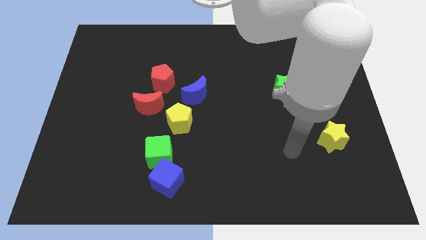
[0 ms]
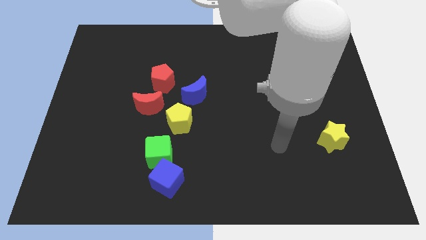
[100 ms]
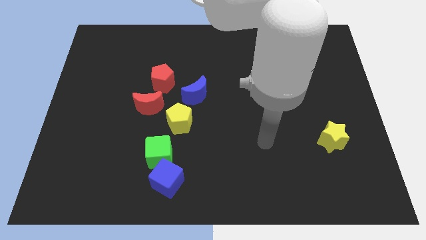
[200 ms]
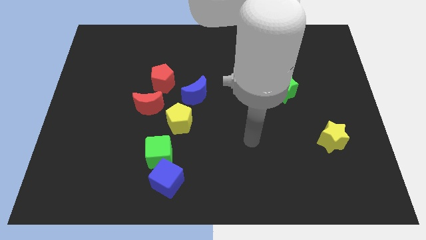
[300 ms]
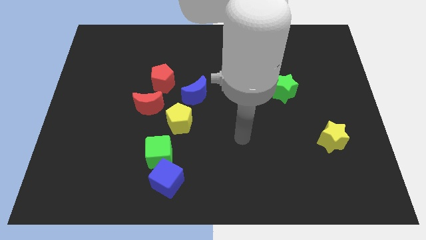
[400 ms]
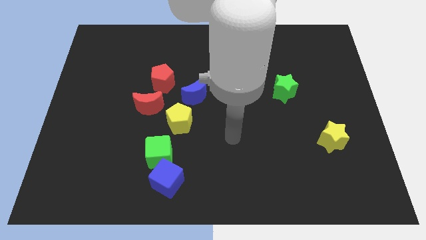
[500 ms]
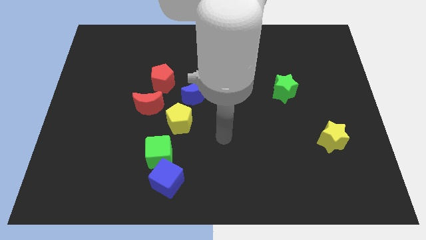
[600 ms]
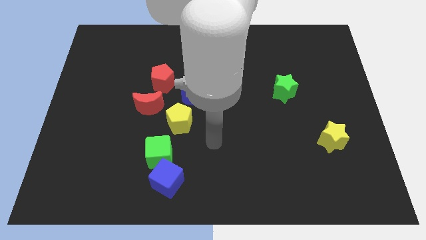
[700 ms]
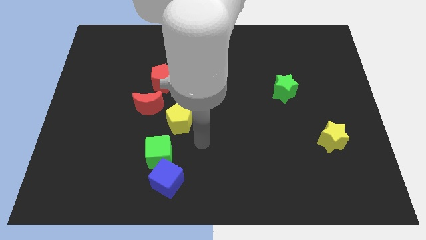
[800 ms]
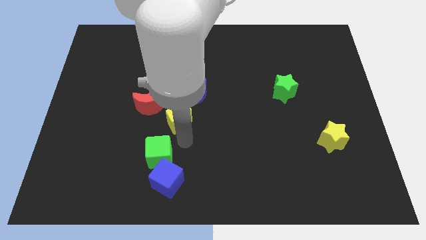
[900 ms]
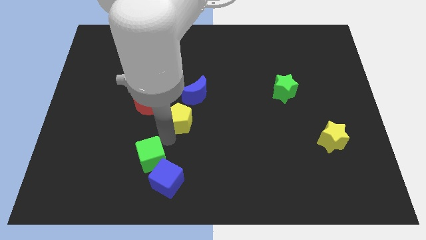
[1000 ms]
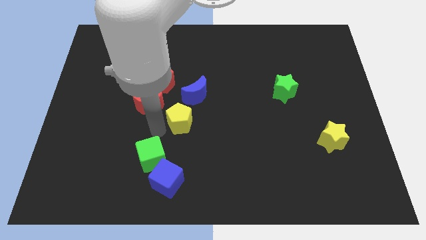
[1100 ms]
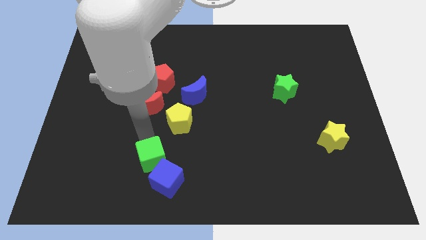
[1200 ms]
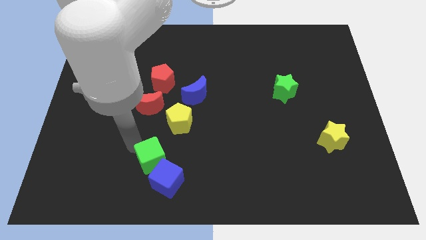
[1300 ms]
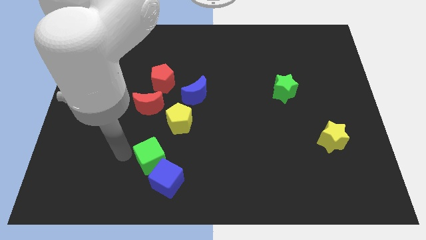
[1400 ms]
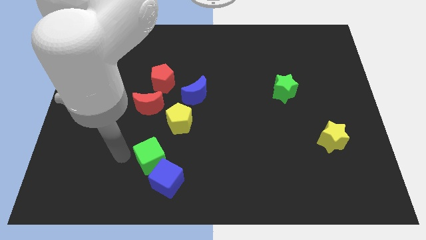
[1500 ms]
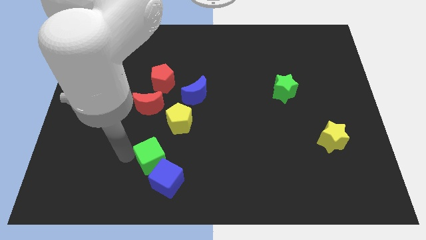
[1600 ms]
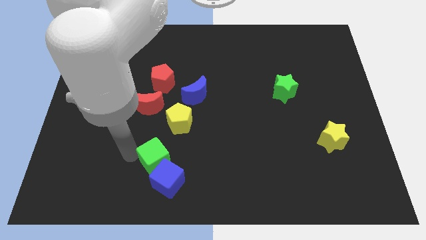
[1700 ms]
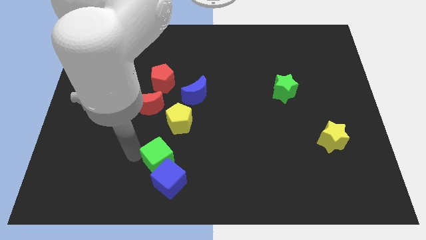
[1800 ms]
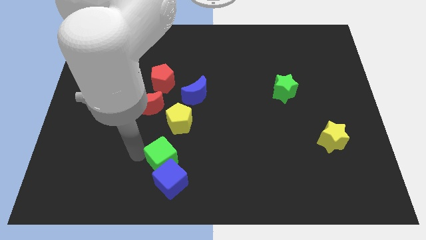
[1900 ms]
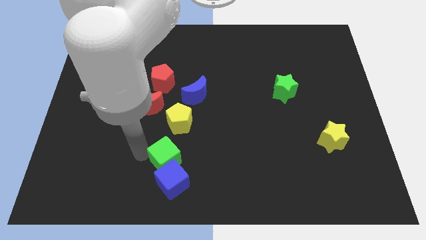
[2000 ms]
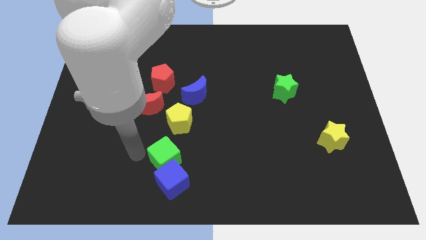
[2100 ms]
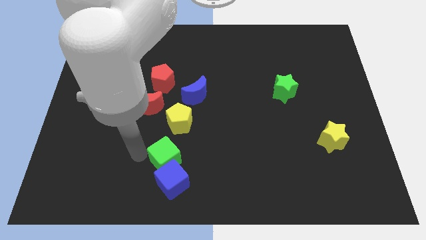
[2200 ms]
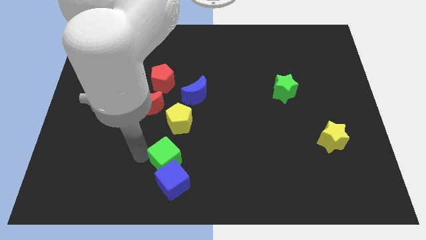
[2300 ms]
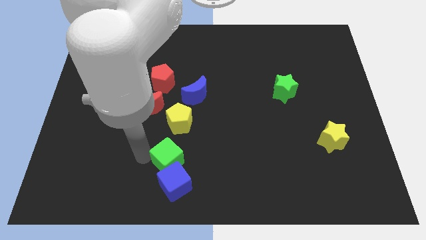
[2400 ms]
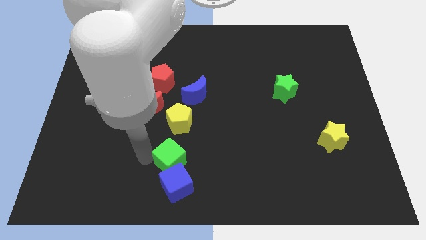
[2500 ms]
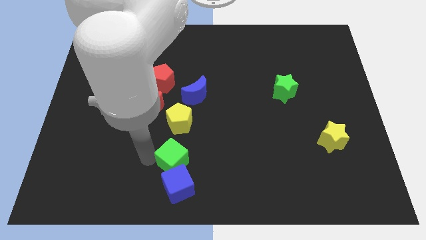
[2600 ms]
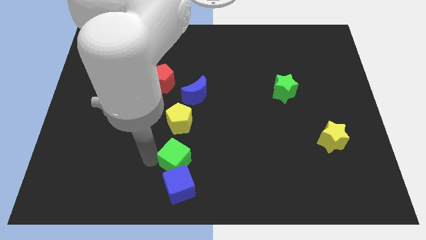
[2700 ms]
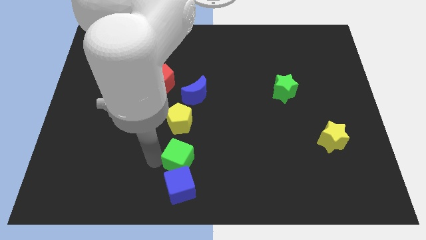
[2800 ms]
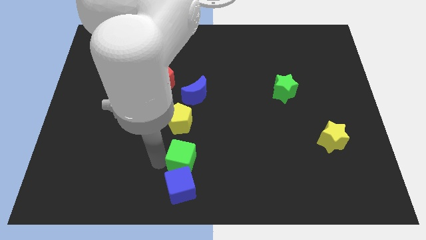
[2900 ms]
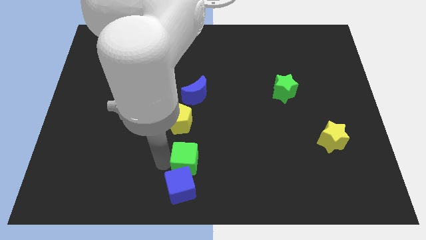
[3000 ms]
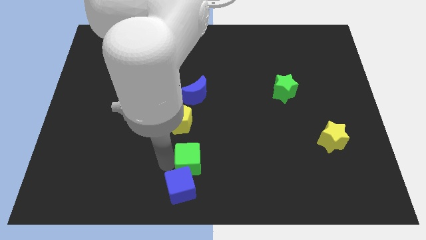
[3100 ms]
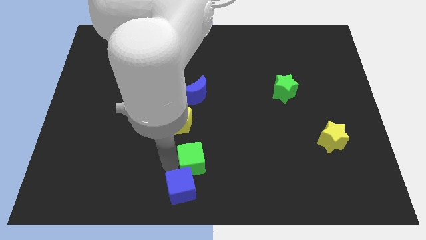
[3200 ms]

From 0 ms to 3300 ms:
move the green cube a little right

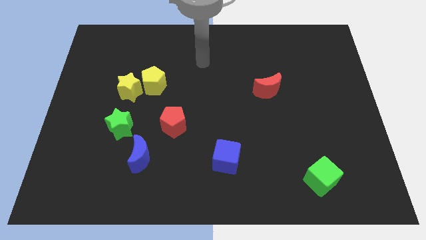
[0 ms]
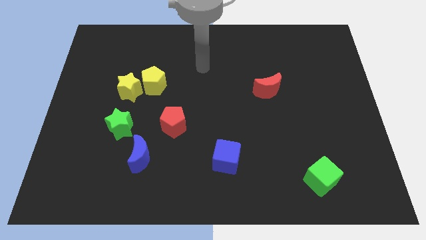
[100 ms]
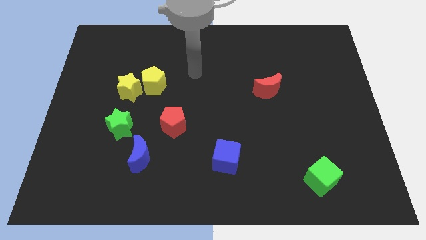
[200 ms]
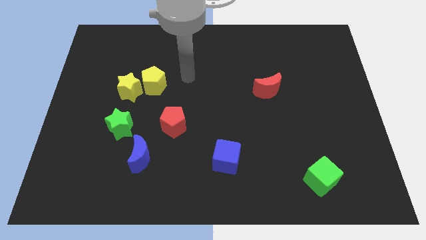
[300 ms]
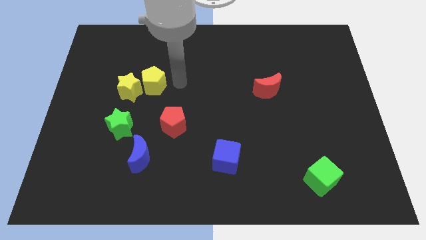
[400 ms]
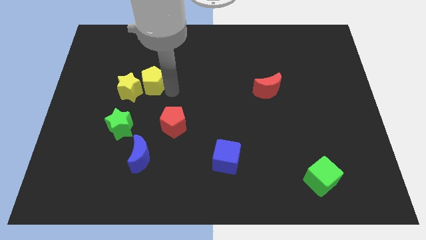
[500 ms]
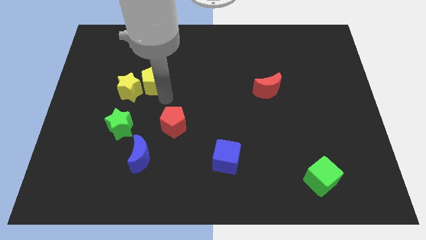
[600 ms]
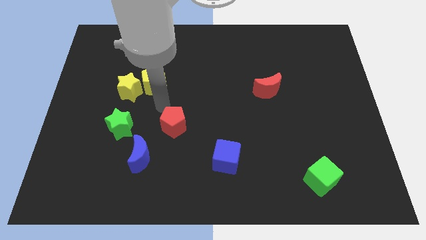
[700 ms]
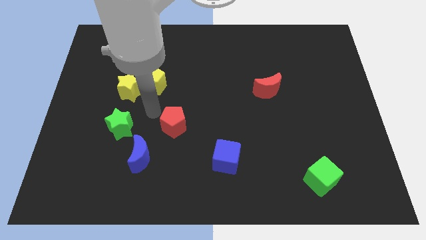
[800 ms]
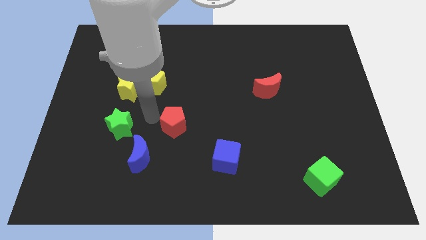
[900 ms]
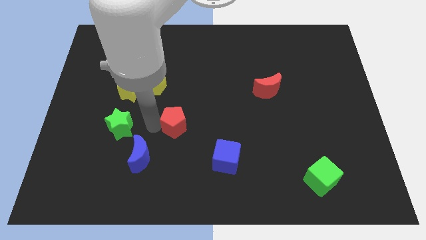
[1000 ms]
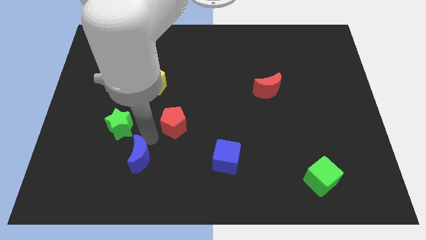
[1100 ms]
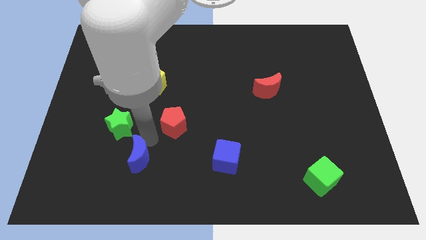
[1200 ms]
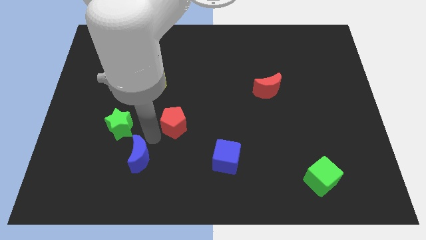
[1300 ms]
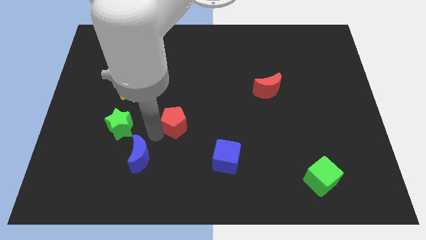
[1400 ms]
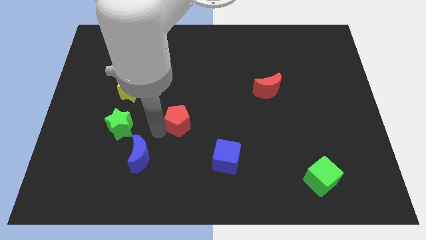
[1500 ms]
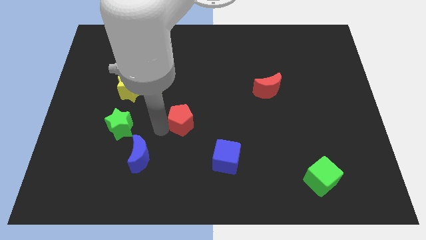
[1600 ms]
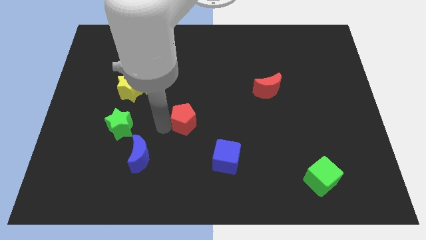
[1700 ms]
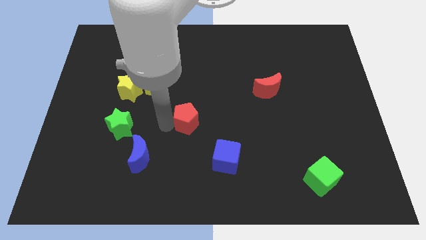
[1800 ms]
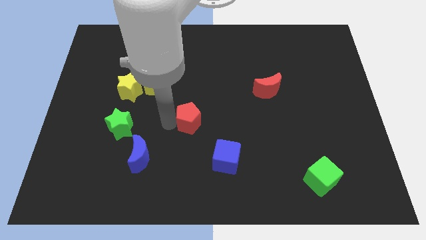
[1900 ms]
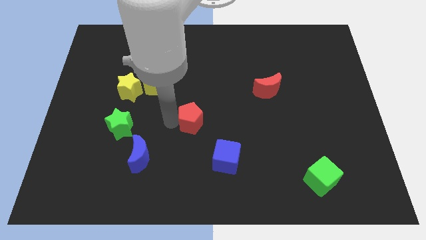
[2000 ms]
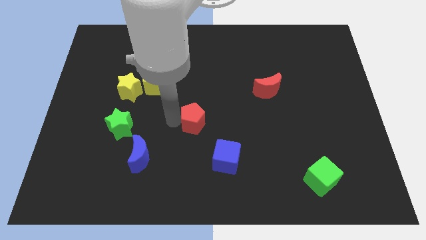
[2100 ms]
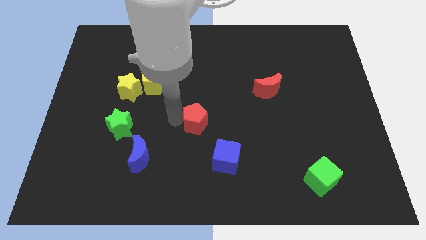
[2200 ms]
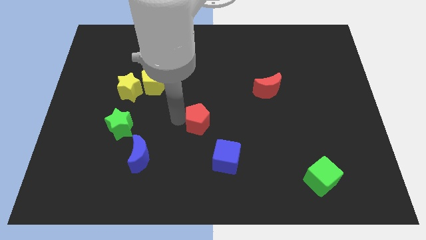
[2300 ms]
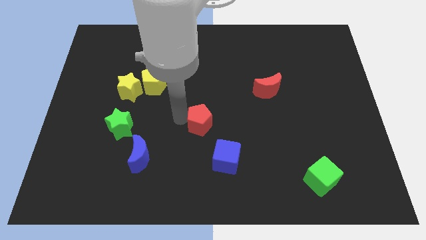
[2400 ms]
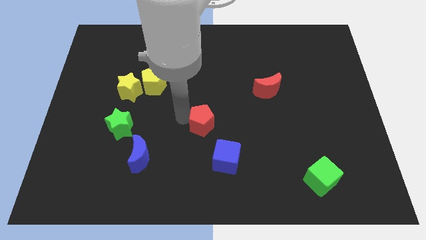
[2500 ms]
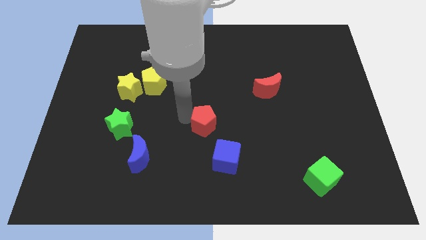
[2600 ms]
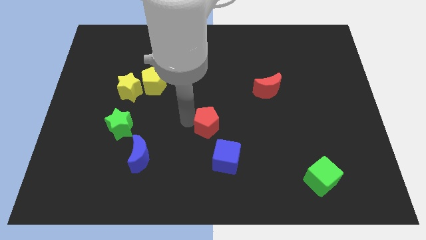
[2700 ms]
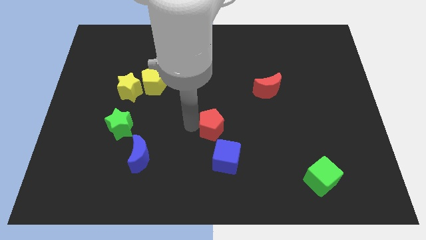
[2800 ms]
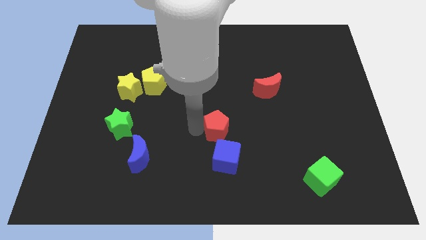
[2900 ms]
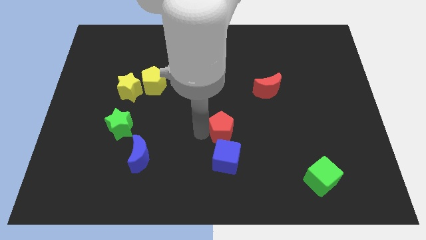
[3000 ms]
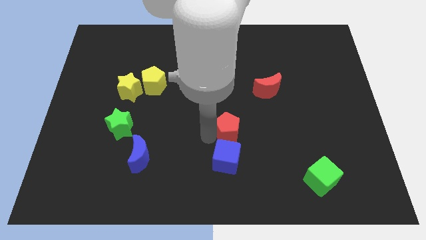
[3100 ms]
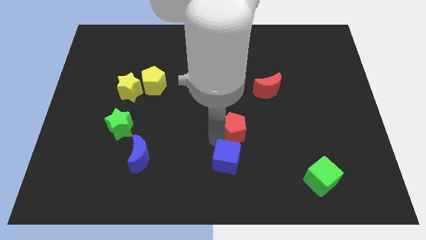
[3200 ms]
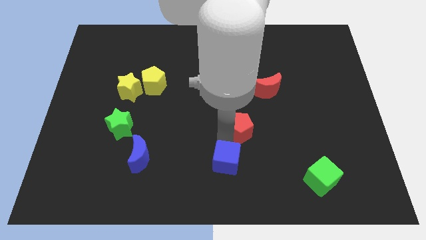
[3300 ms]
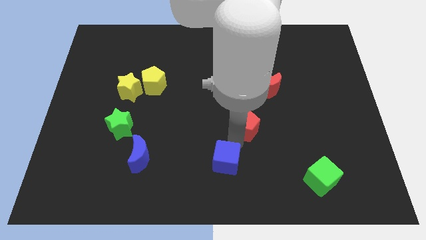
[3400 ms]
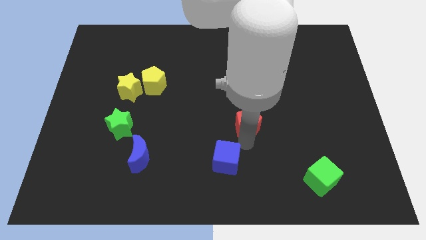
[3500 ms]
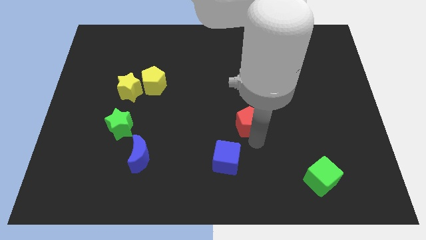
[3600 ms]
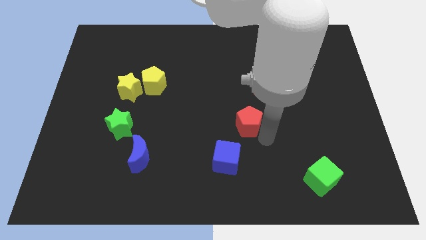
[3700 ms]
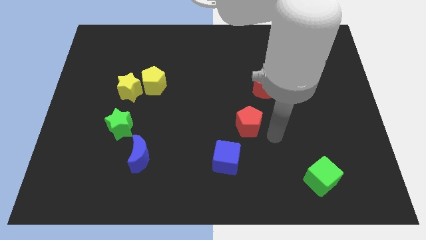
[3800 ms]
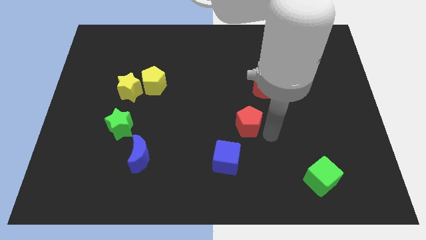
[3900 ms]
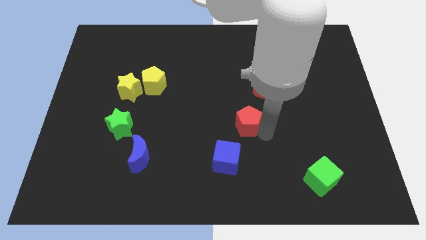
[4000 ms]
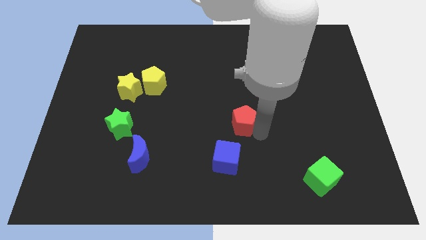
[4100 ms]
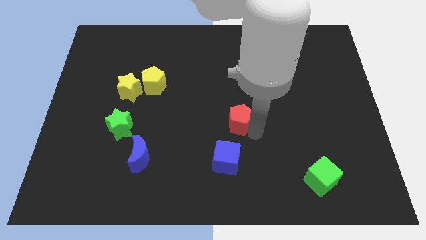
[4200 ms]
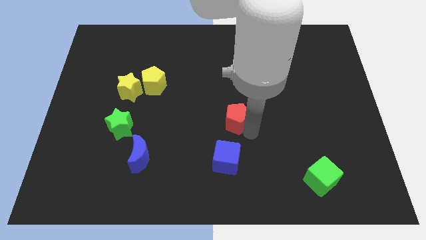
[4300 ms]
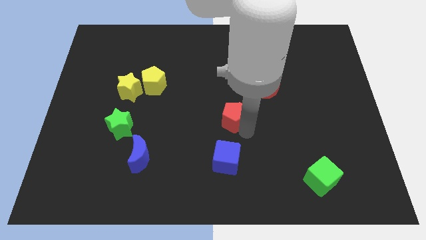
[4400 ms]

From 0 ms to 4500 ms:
move the red pentagon somewhat up and to the right diagonally

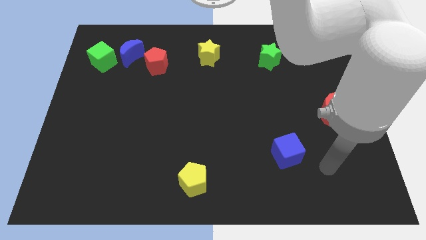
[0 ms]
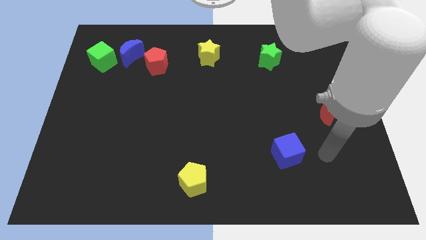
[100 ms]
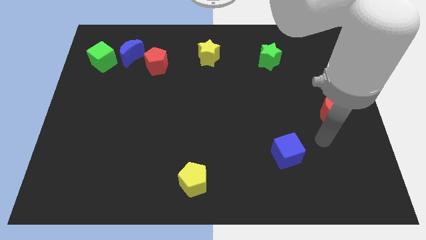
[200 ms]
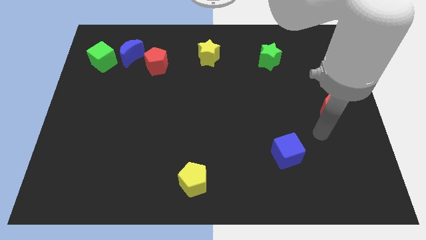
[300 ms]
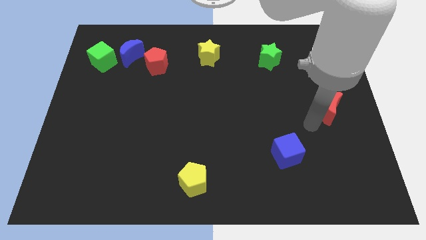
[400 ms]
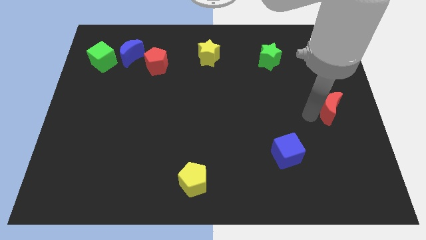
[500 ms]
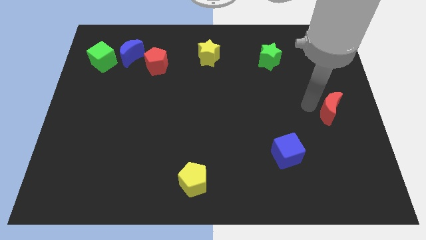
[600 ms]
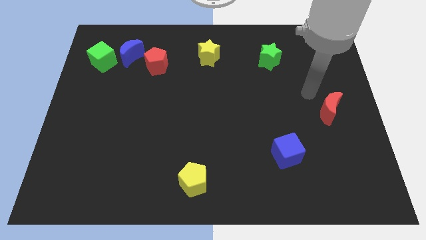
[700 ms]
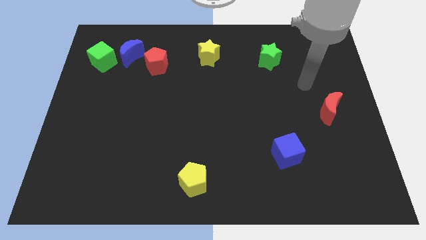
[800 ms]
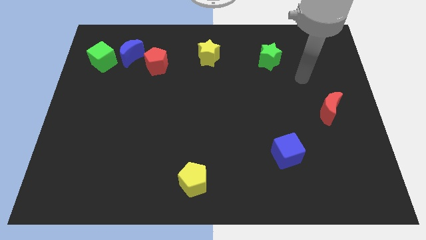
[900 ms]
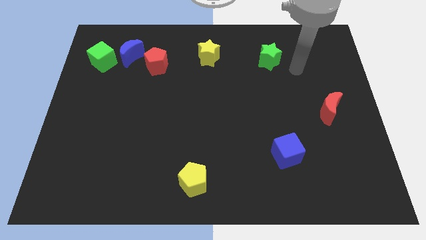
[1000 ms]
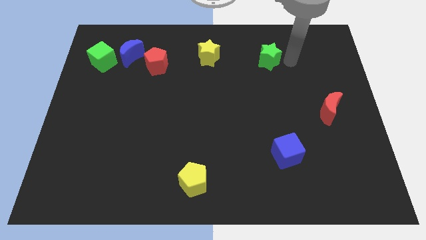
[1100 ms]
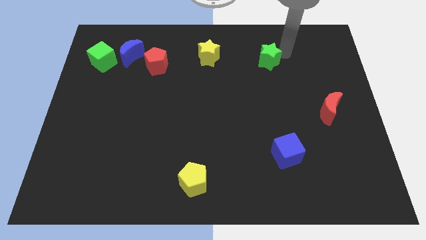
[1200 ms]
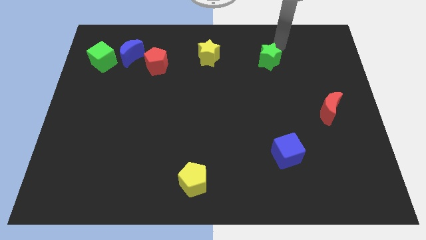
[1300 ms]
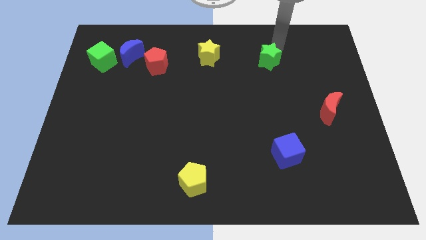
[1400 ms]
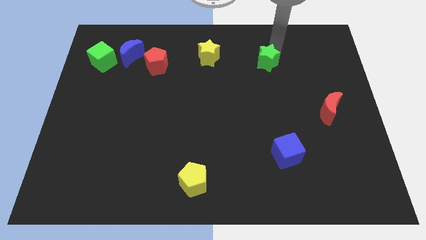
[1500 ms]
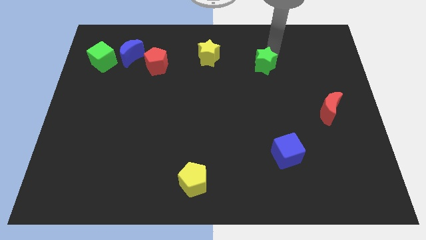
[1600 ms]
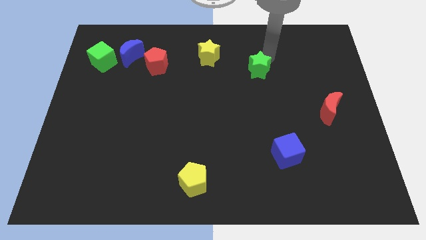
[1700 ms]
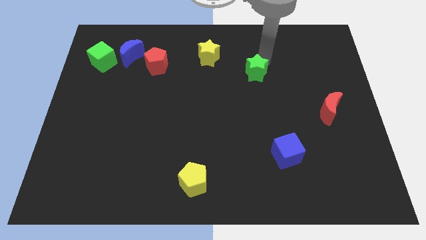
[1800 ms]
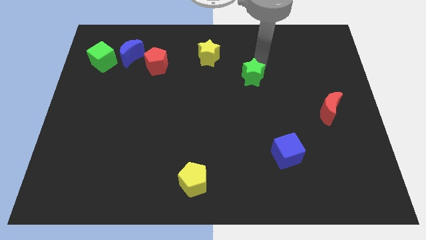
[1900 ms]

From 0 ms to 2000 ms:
move the green star down and left diagonally somewhat
